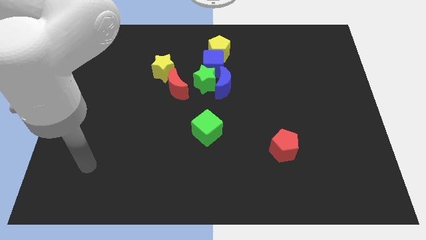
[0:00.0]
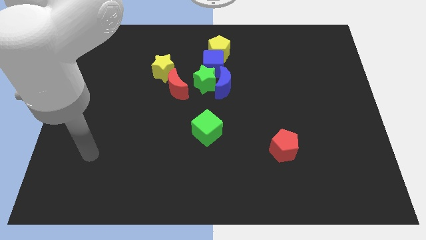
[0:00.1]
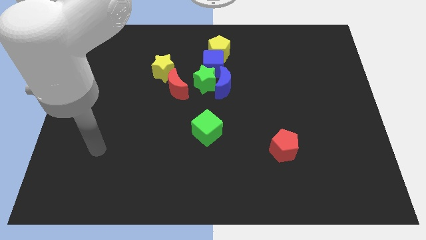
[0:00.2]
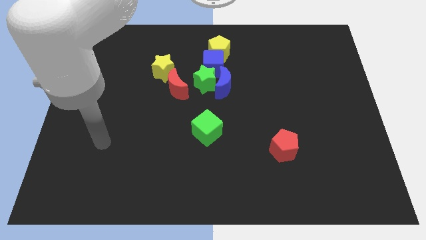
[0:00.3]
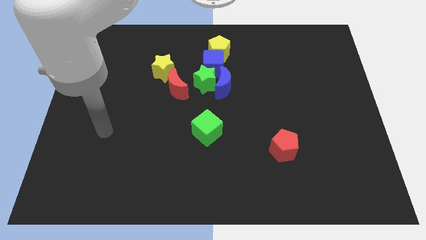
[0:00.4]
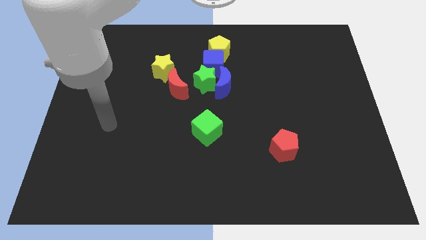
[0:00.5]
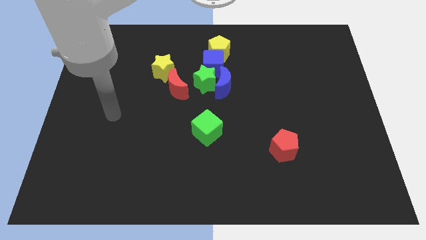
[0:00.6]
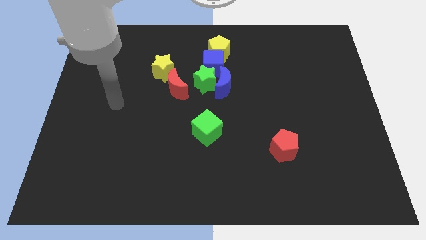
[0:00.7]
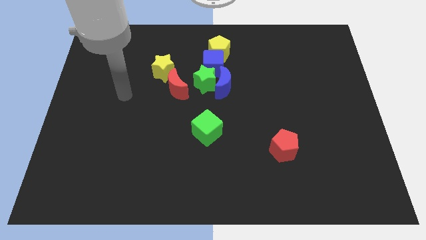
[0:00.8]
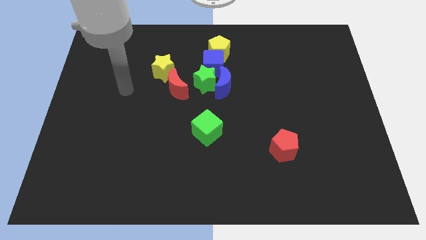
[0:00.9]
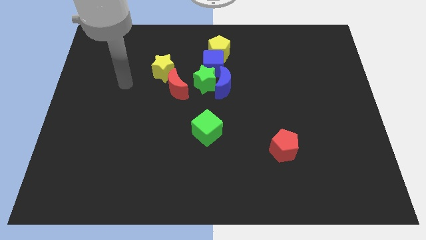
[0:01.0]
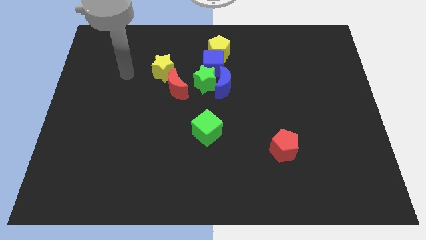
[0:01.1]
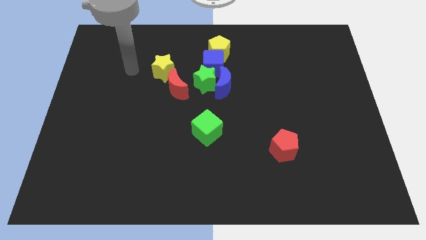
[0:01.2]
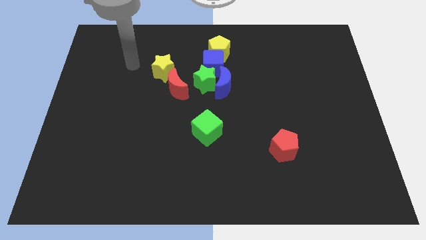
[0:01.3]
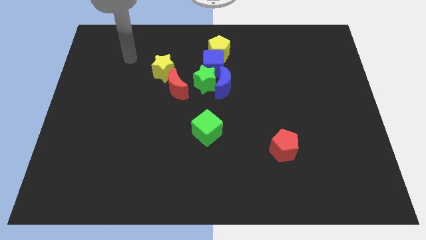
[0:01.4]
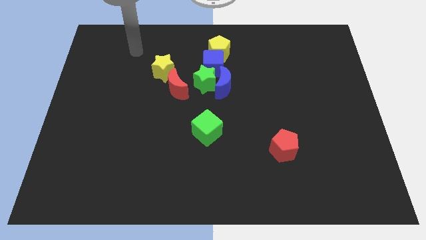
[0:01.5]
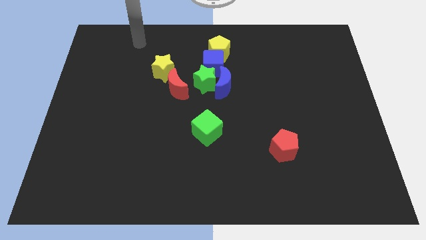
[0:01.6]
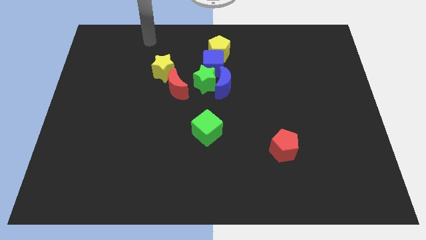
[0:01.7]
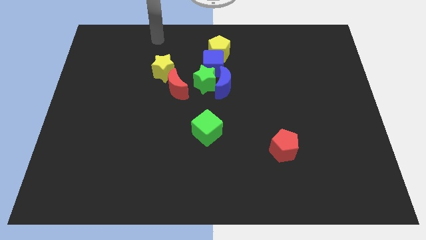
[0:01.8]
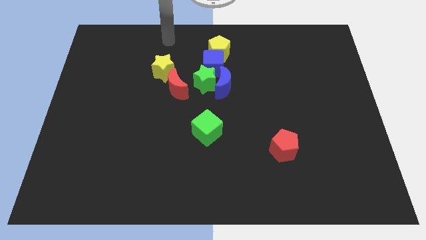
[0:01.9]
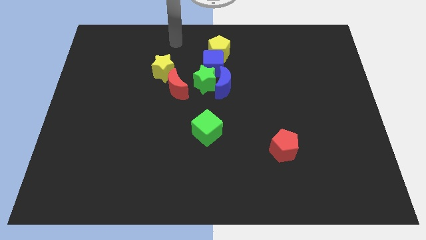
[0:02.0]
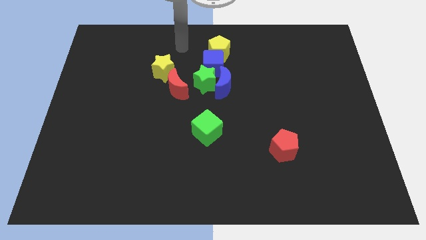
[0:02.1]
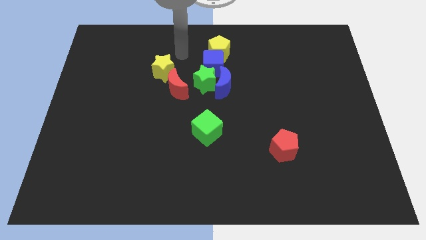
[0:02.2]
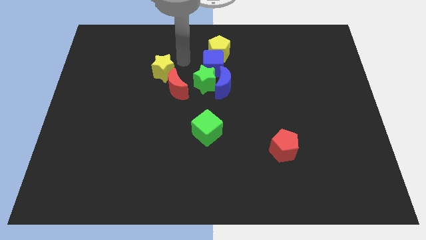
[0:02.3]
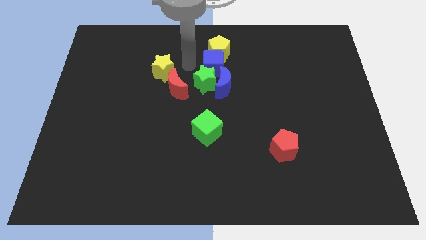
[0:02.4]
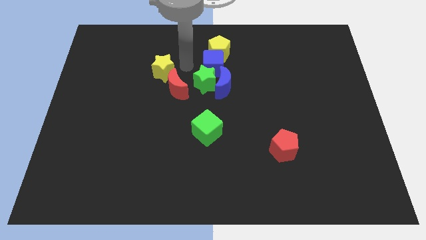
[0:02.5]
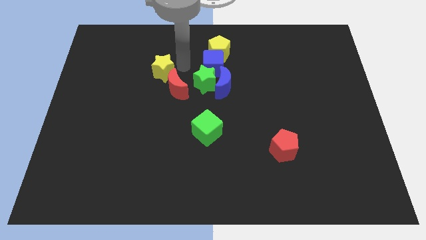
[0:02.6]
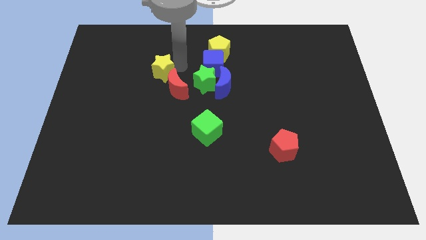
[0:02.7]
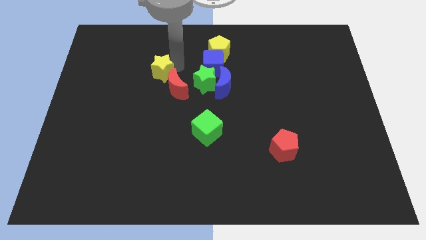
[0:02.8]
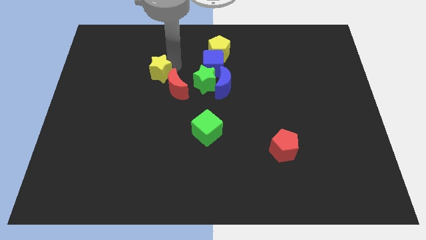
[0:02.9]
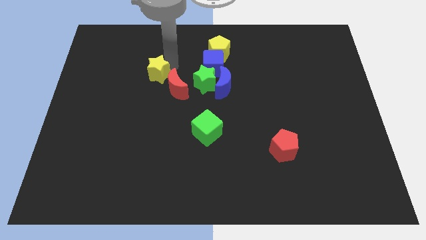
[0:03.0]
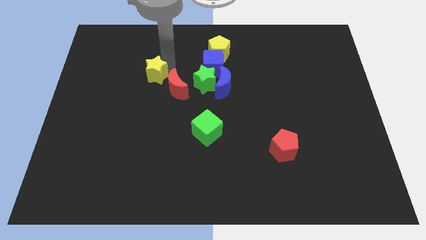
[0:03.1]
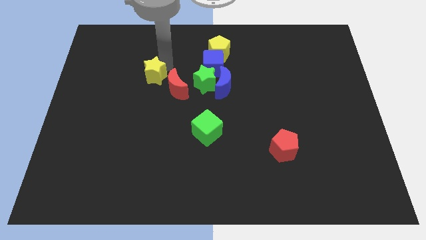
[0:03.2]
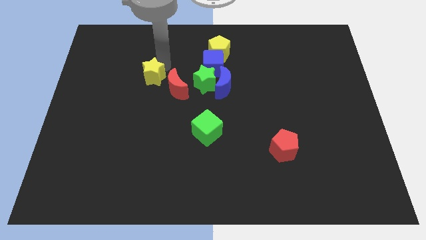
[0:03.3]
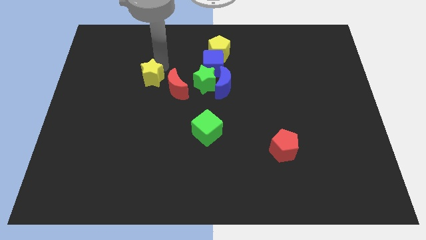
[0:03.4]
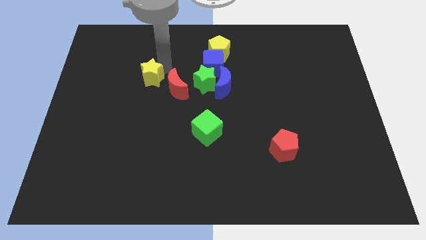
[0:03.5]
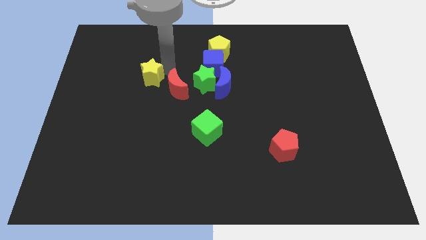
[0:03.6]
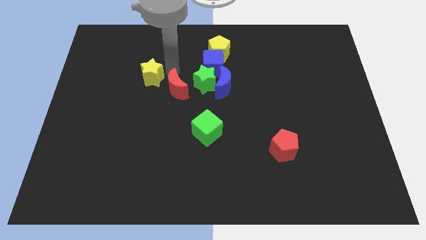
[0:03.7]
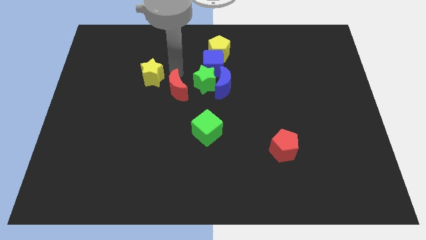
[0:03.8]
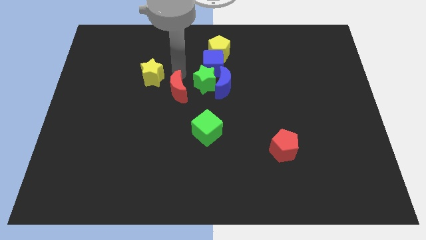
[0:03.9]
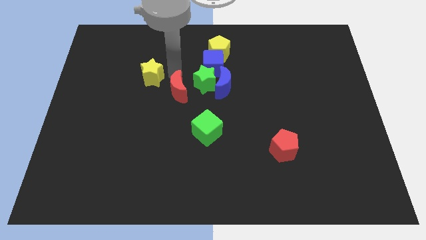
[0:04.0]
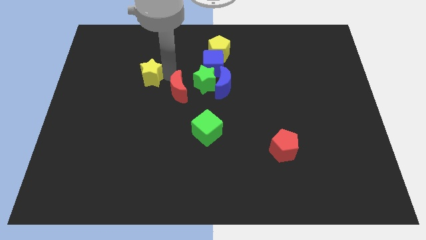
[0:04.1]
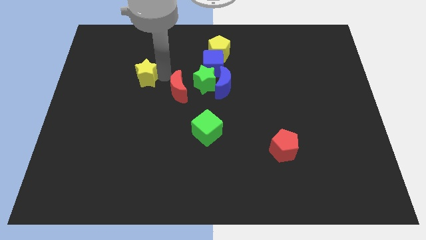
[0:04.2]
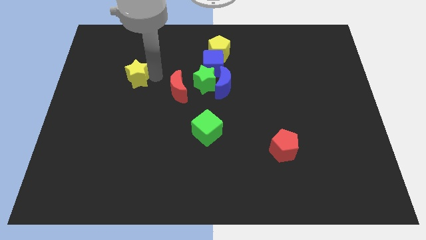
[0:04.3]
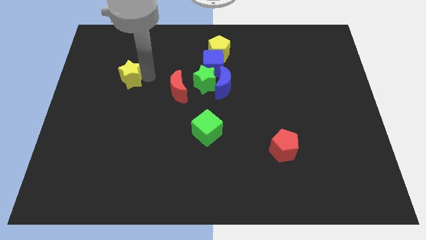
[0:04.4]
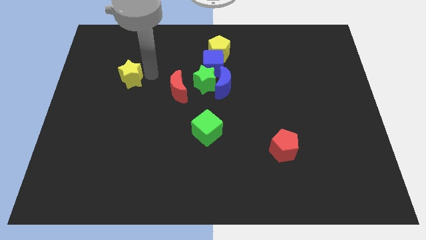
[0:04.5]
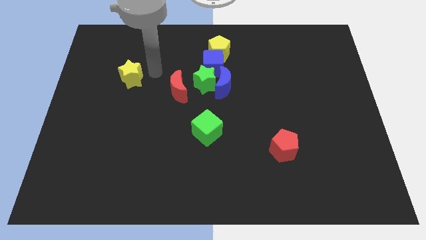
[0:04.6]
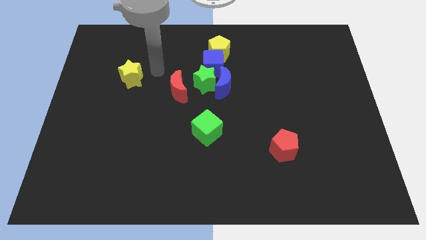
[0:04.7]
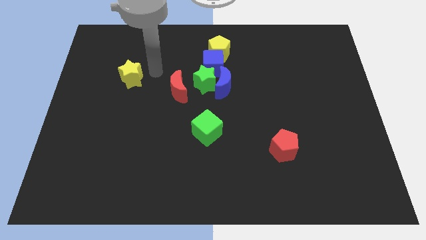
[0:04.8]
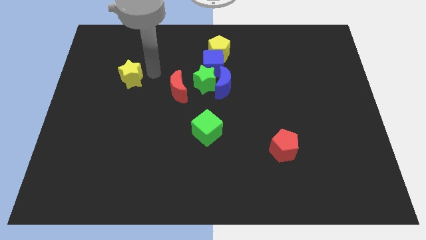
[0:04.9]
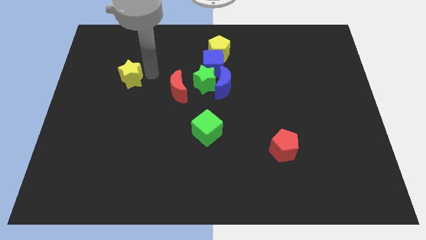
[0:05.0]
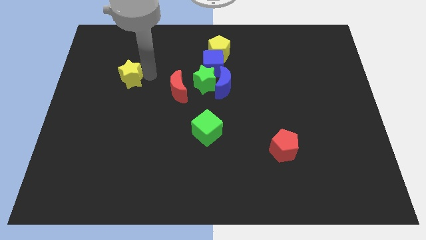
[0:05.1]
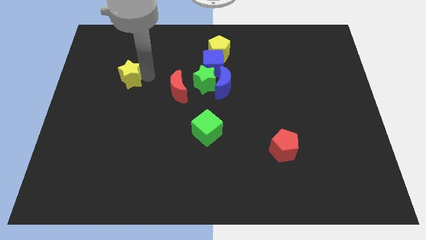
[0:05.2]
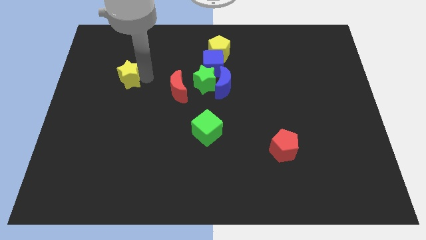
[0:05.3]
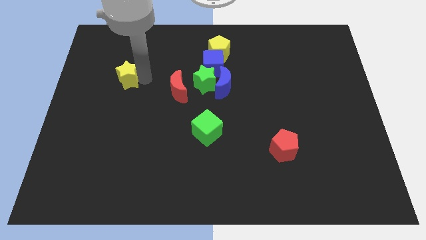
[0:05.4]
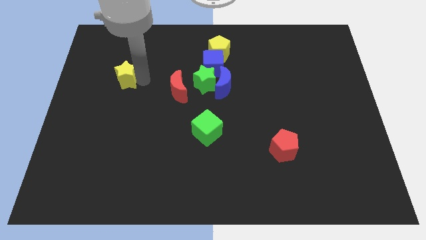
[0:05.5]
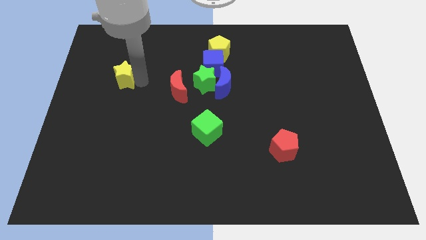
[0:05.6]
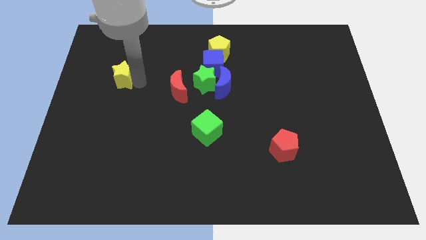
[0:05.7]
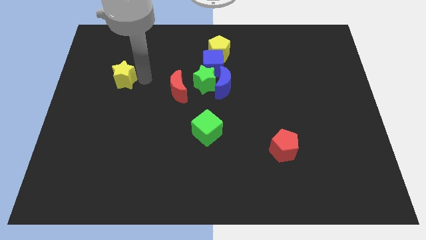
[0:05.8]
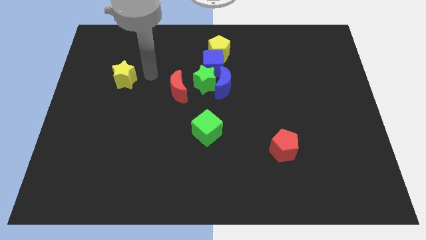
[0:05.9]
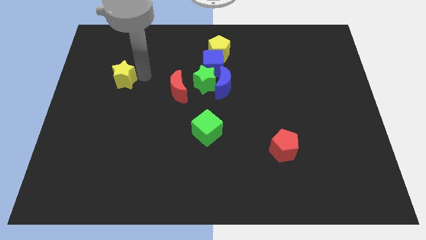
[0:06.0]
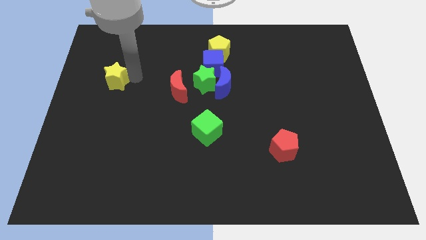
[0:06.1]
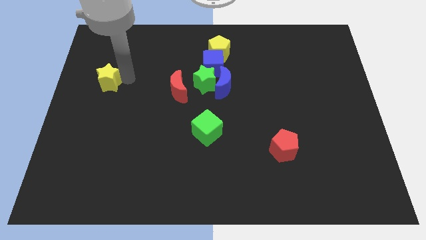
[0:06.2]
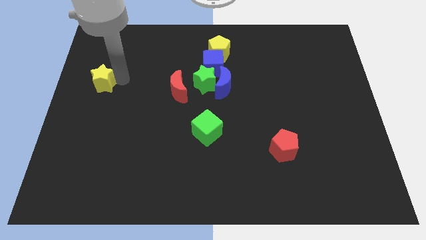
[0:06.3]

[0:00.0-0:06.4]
push the yellow star to the left side of the board

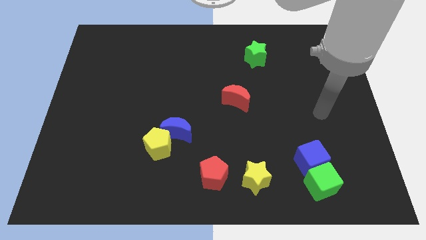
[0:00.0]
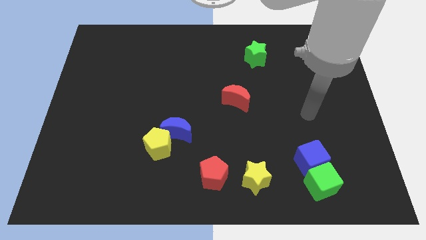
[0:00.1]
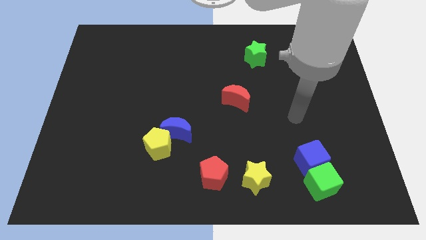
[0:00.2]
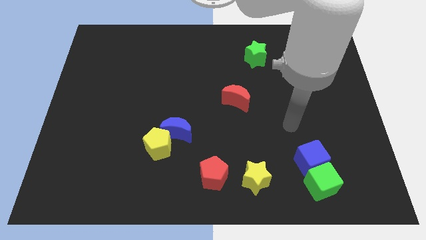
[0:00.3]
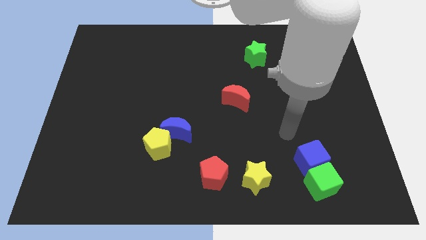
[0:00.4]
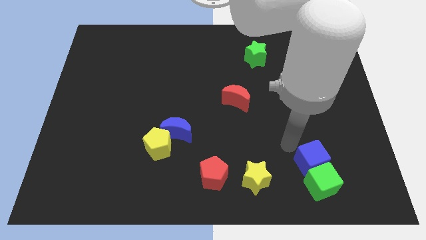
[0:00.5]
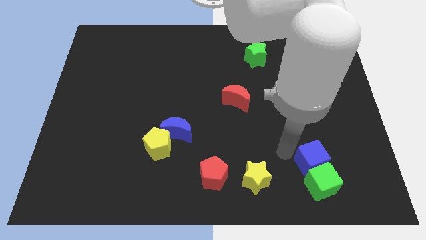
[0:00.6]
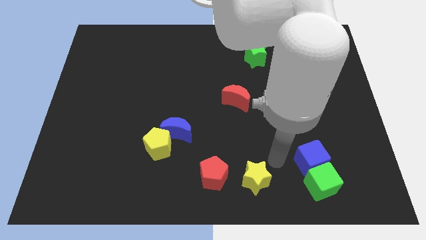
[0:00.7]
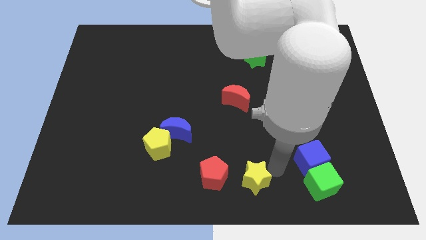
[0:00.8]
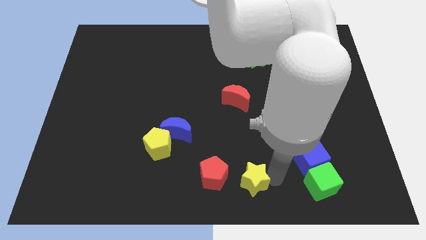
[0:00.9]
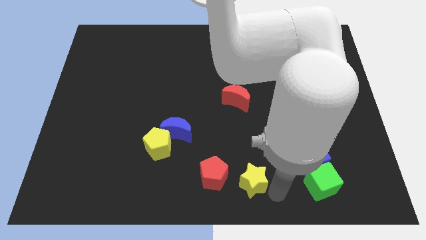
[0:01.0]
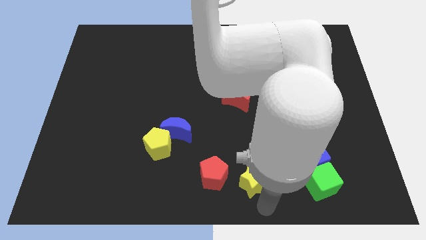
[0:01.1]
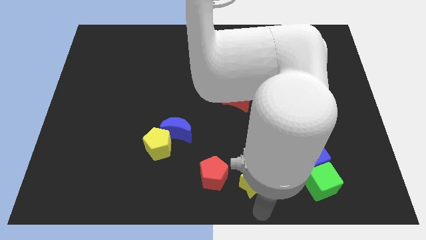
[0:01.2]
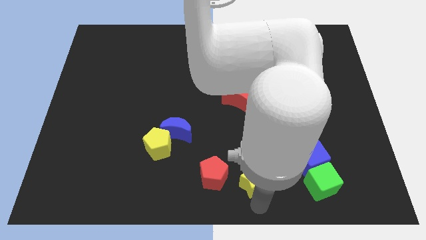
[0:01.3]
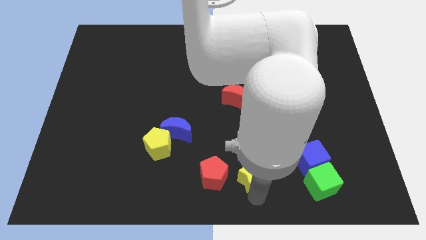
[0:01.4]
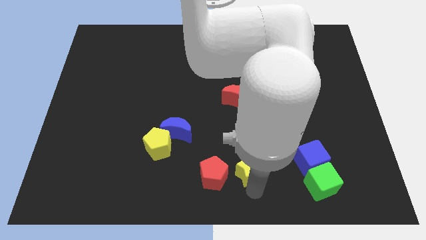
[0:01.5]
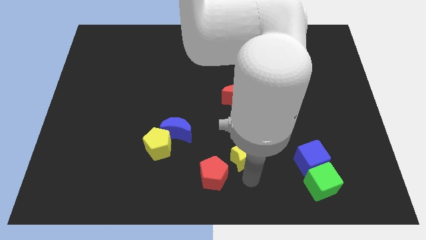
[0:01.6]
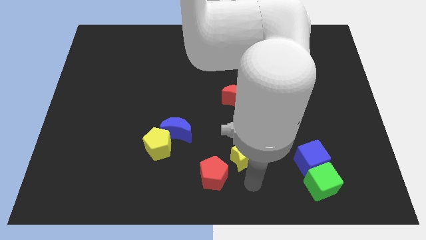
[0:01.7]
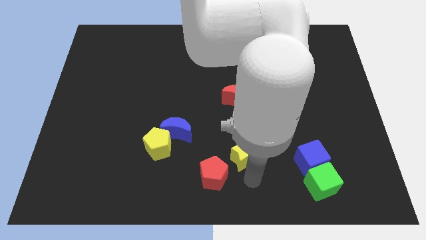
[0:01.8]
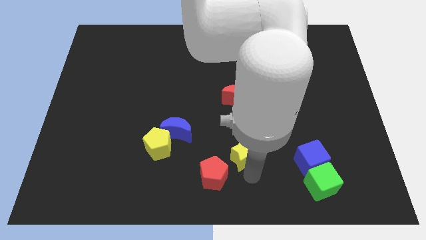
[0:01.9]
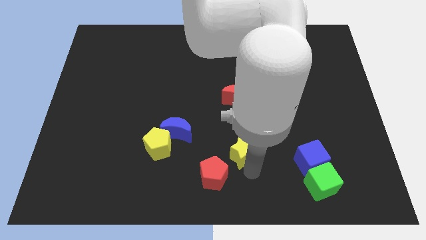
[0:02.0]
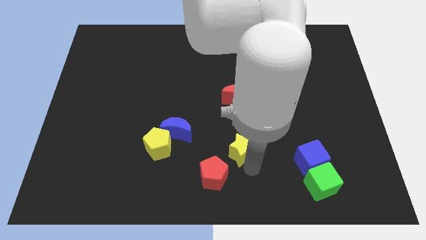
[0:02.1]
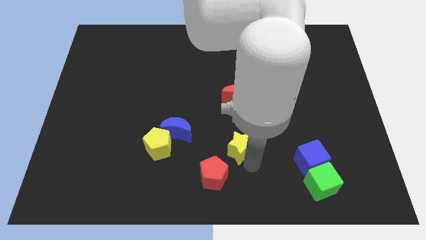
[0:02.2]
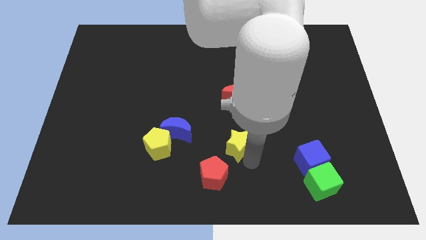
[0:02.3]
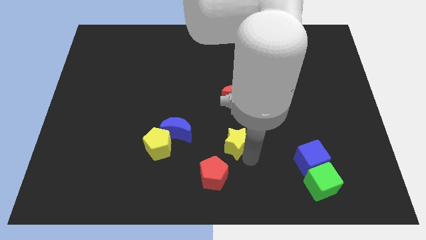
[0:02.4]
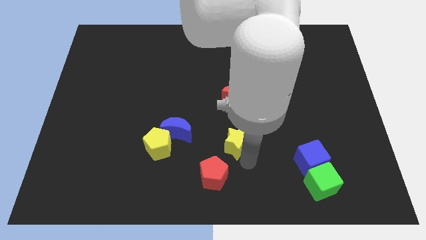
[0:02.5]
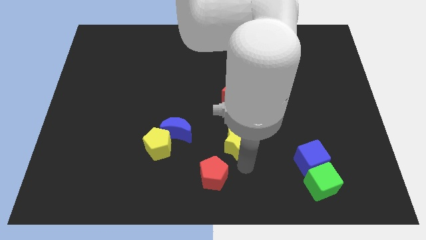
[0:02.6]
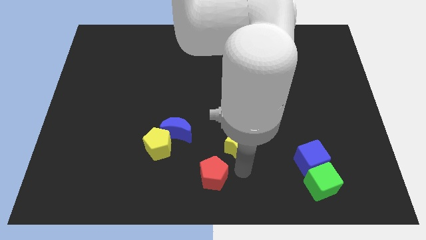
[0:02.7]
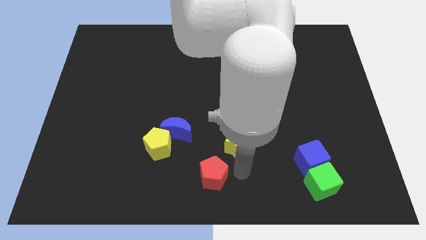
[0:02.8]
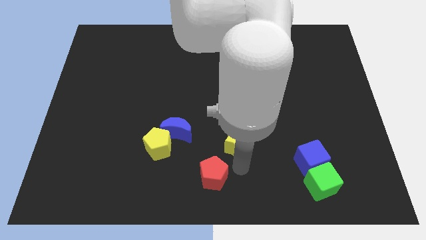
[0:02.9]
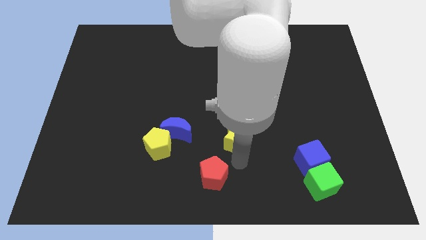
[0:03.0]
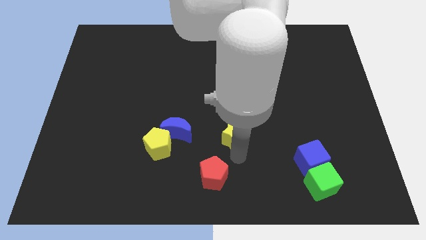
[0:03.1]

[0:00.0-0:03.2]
move the yellow star to the center
